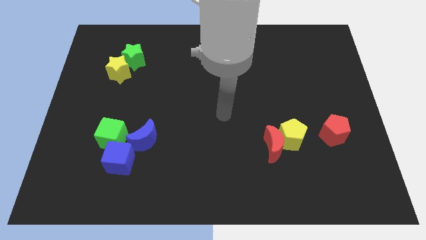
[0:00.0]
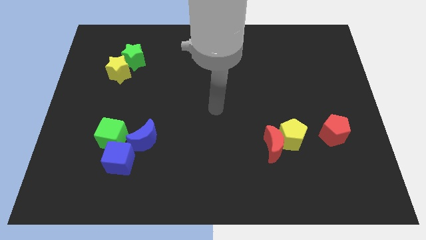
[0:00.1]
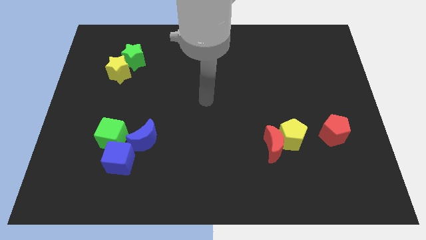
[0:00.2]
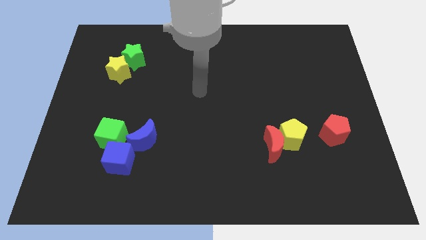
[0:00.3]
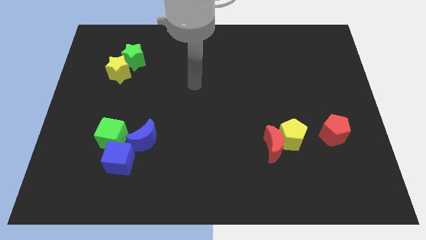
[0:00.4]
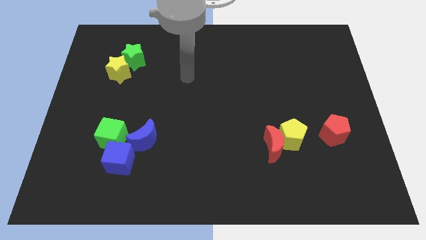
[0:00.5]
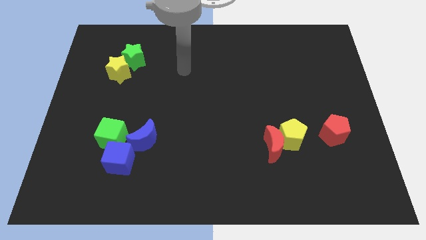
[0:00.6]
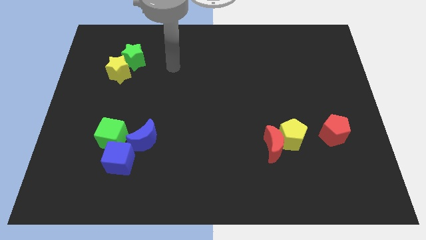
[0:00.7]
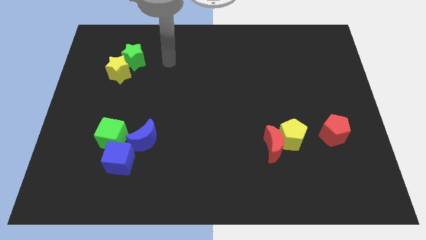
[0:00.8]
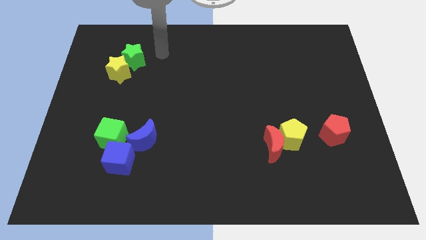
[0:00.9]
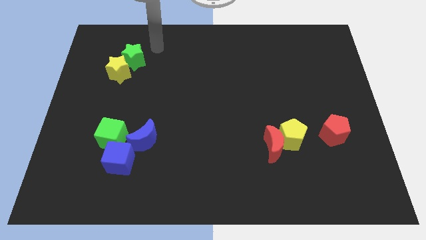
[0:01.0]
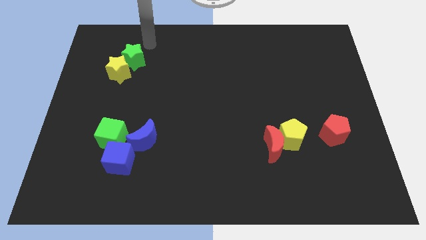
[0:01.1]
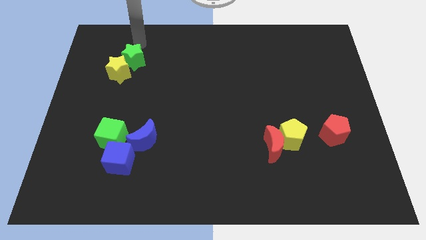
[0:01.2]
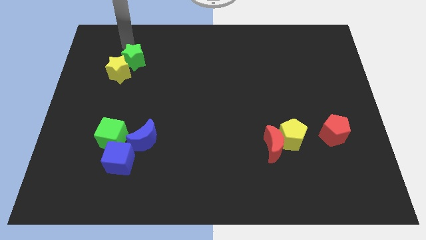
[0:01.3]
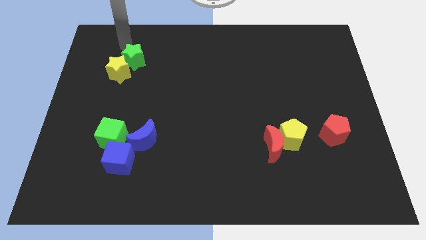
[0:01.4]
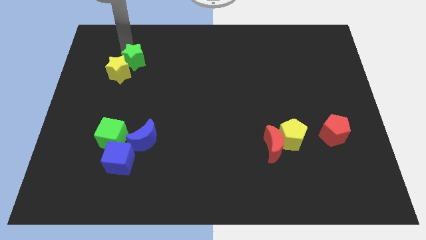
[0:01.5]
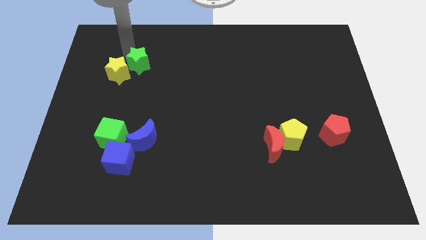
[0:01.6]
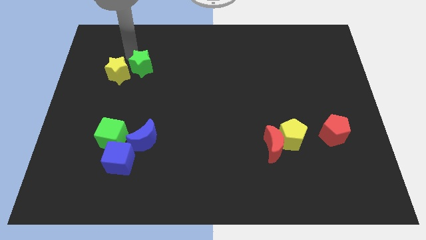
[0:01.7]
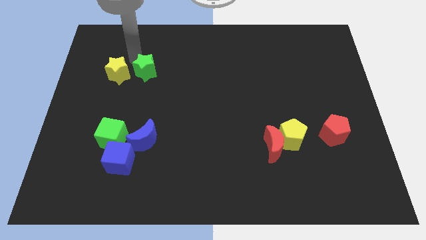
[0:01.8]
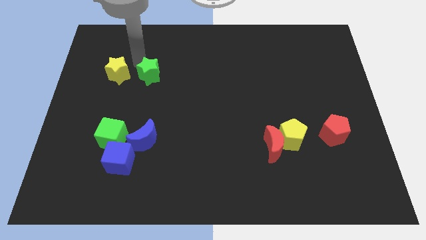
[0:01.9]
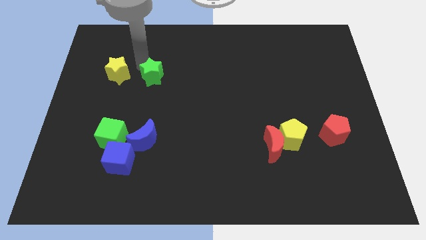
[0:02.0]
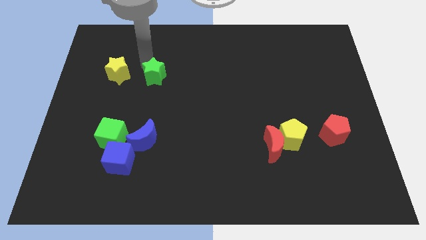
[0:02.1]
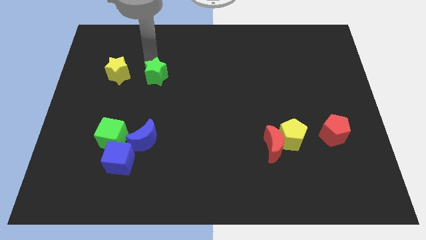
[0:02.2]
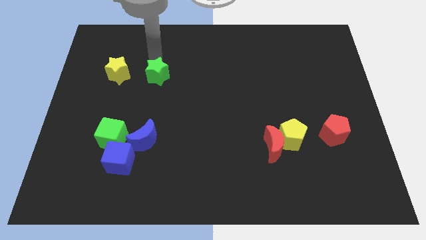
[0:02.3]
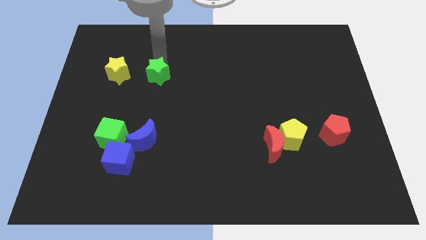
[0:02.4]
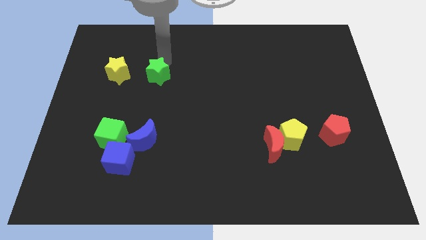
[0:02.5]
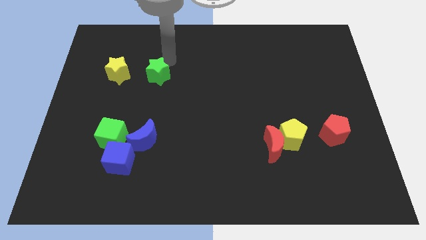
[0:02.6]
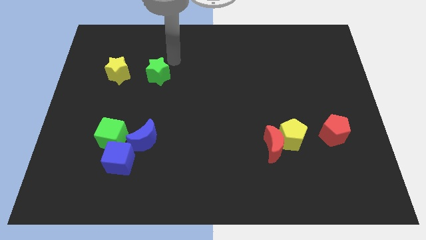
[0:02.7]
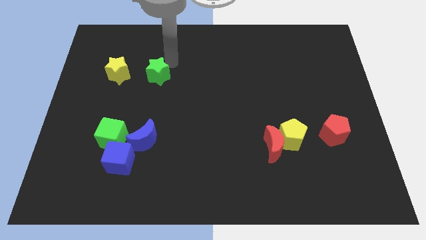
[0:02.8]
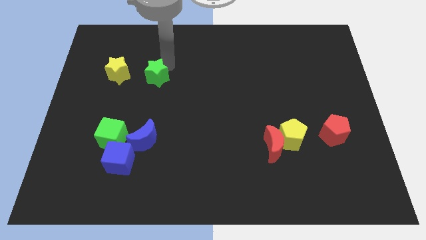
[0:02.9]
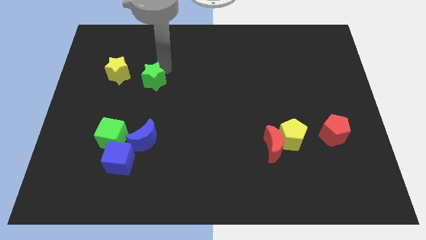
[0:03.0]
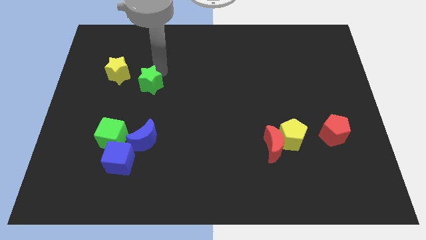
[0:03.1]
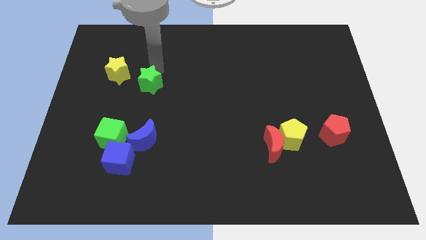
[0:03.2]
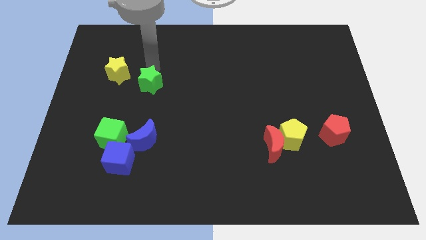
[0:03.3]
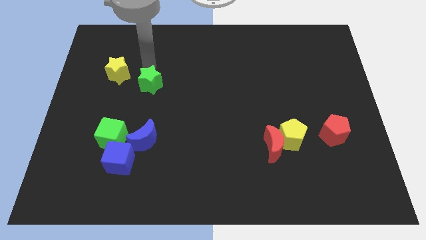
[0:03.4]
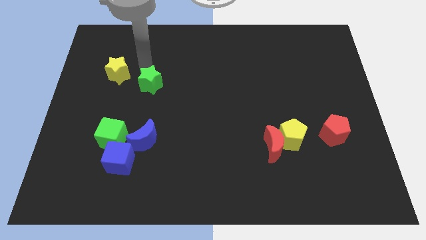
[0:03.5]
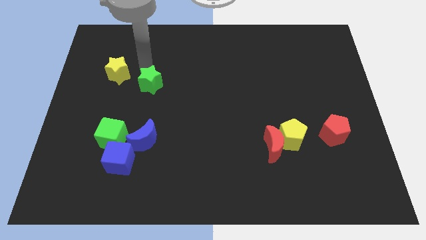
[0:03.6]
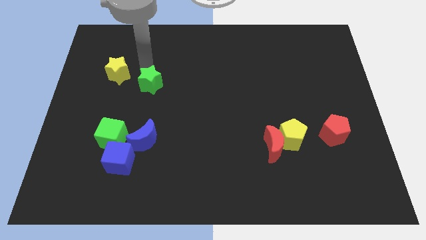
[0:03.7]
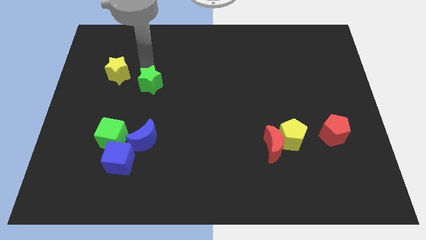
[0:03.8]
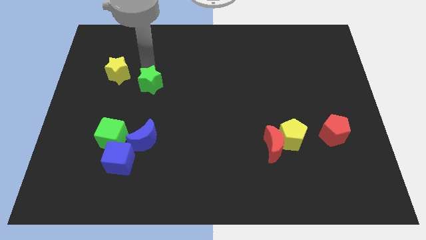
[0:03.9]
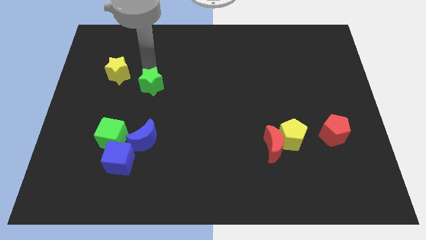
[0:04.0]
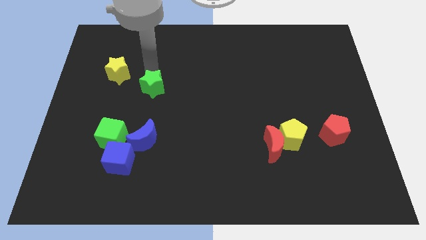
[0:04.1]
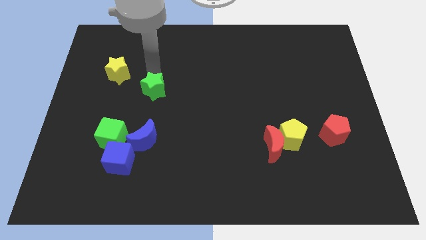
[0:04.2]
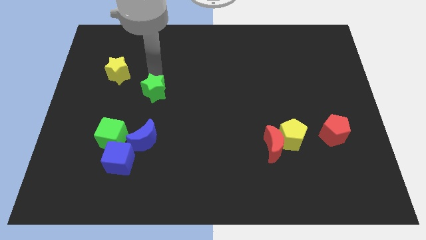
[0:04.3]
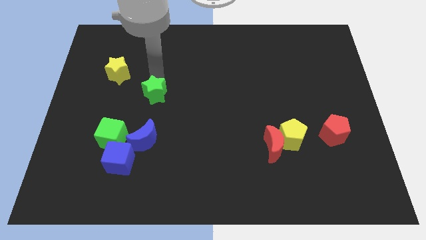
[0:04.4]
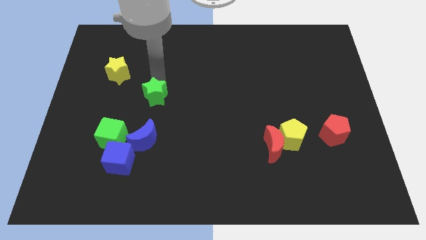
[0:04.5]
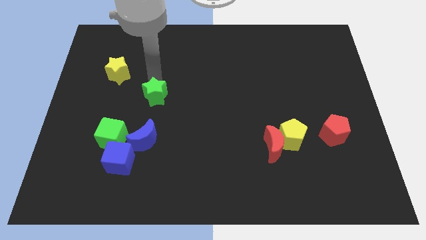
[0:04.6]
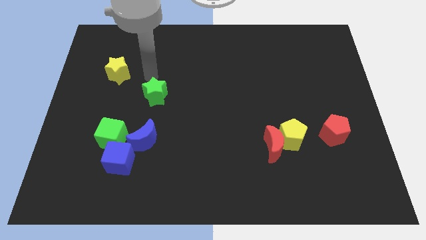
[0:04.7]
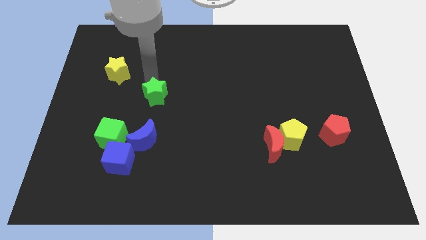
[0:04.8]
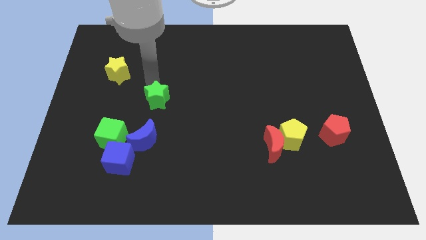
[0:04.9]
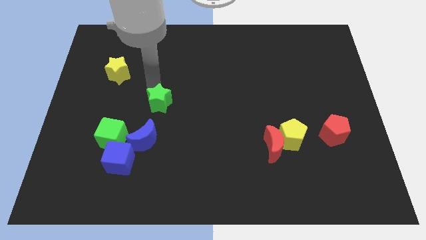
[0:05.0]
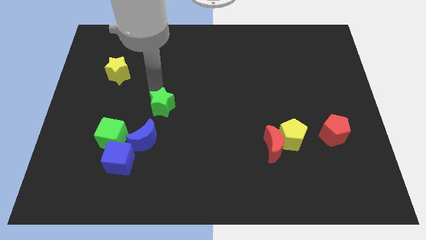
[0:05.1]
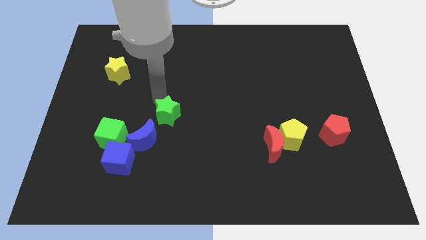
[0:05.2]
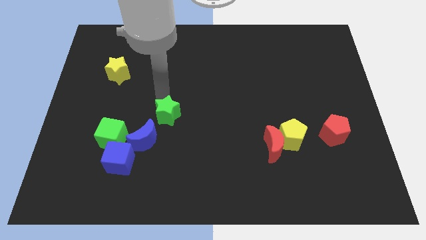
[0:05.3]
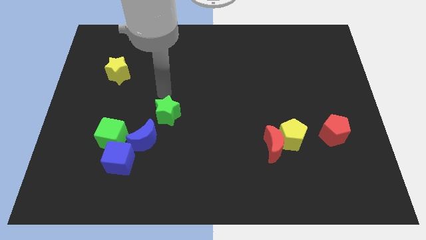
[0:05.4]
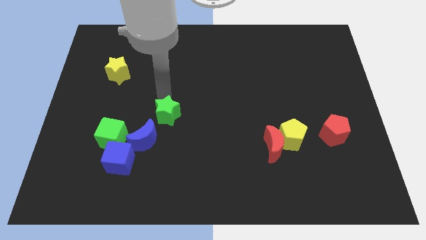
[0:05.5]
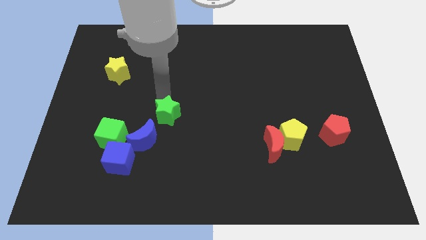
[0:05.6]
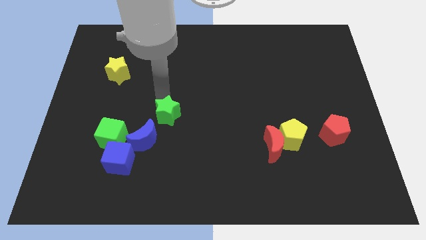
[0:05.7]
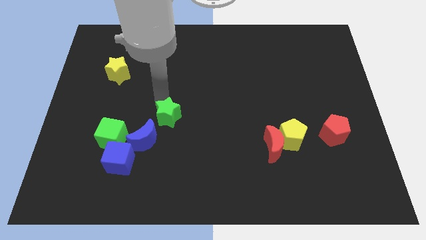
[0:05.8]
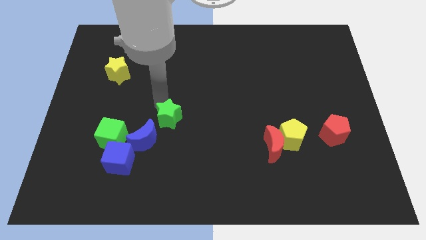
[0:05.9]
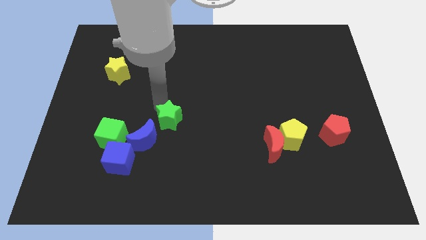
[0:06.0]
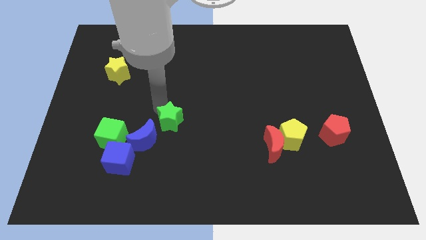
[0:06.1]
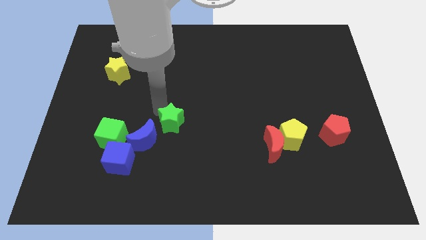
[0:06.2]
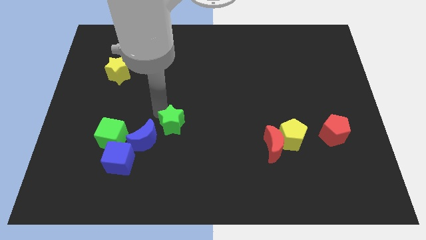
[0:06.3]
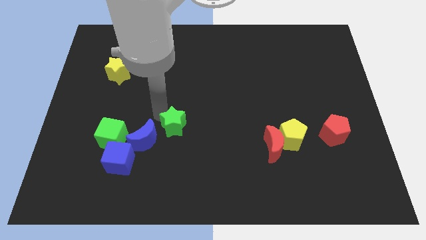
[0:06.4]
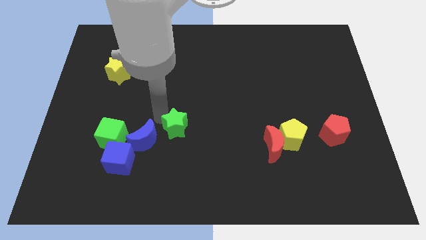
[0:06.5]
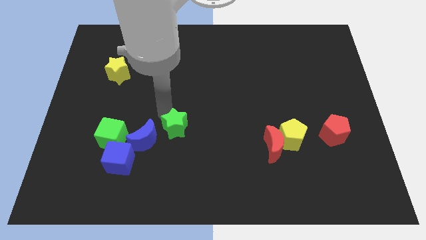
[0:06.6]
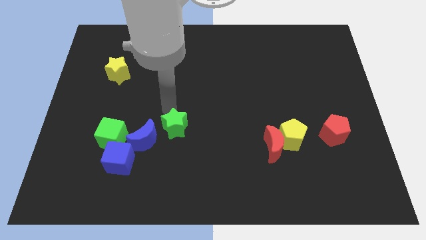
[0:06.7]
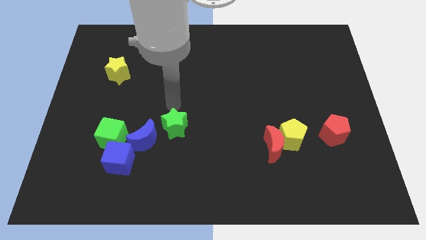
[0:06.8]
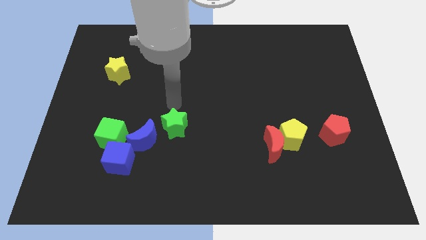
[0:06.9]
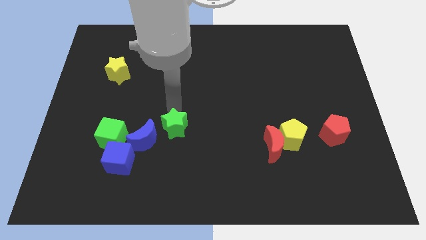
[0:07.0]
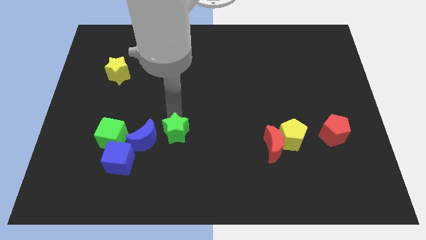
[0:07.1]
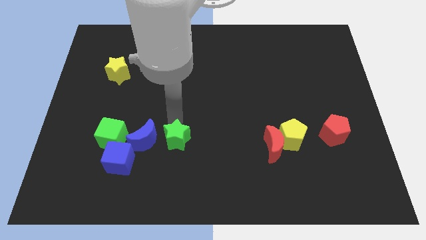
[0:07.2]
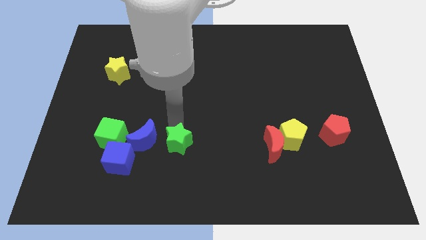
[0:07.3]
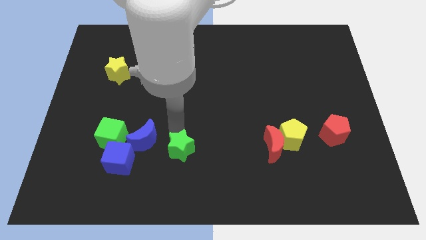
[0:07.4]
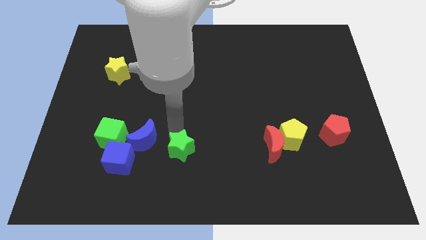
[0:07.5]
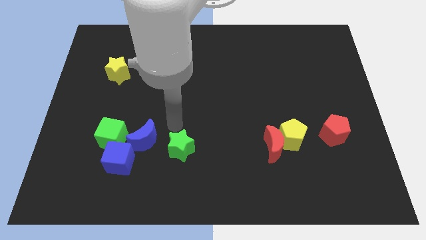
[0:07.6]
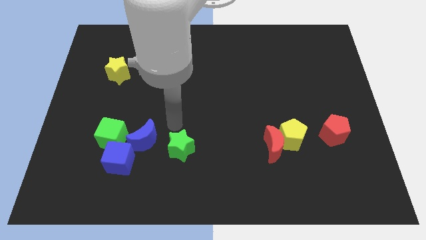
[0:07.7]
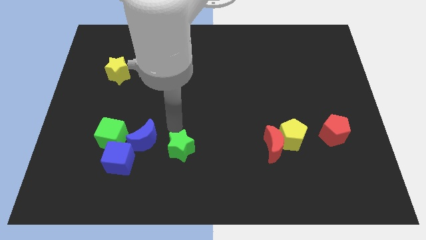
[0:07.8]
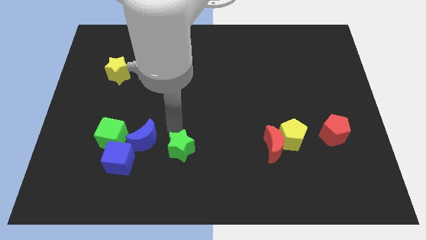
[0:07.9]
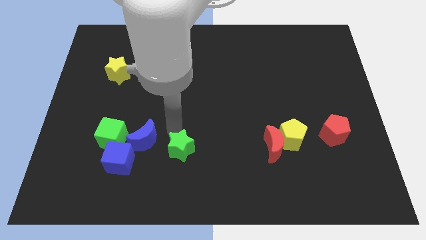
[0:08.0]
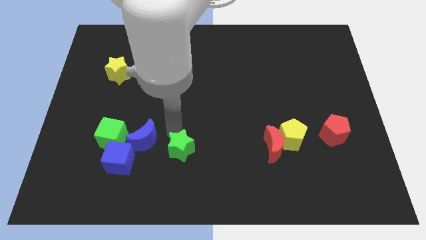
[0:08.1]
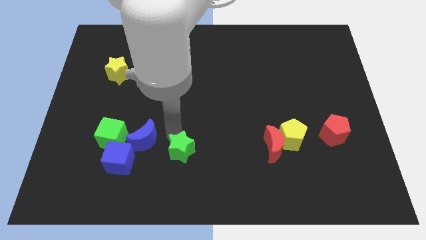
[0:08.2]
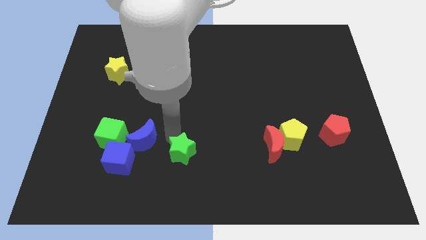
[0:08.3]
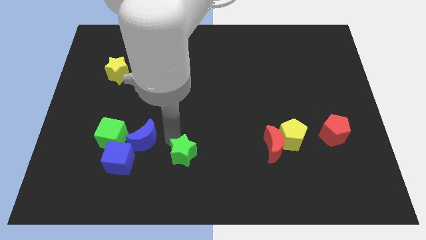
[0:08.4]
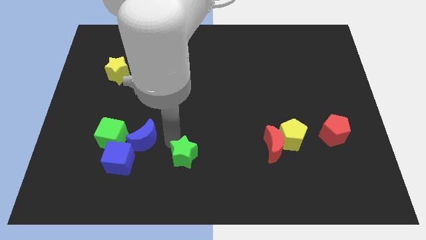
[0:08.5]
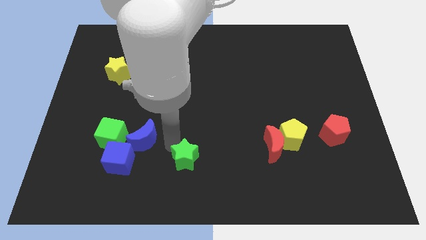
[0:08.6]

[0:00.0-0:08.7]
slide the green star to the bottom side
